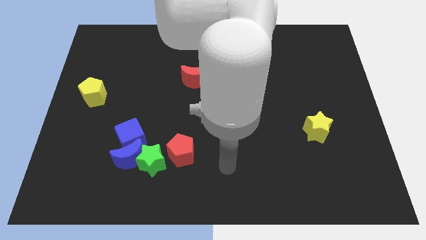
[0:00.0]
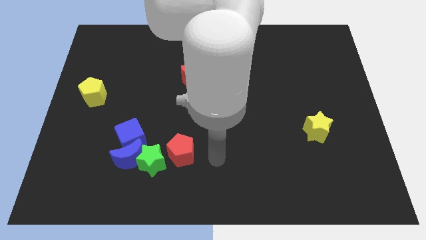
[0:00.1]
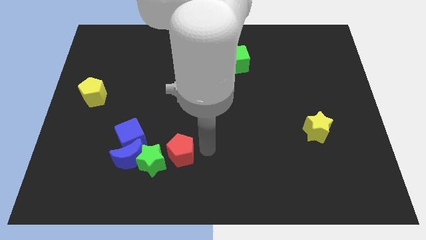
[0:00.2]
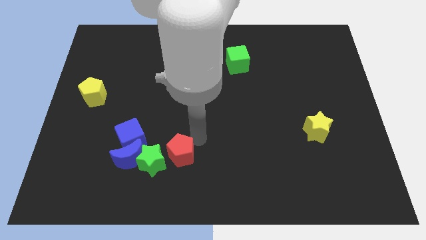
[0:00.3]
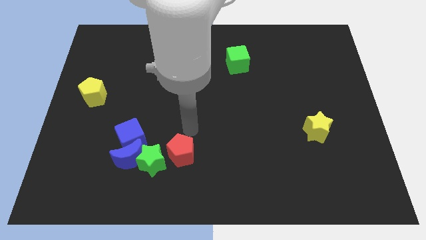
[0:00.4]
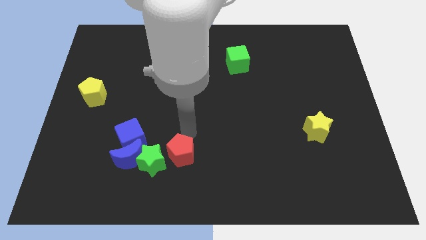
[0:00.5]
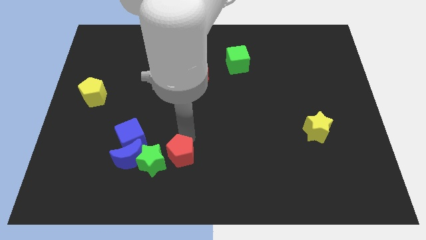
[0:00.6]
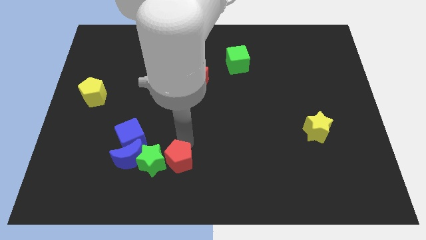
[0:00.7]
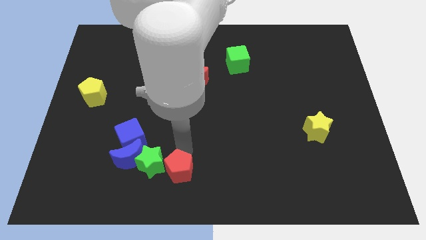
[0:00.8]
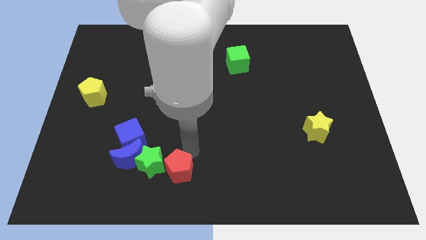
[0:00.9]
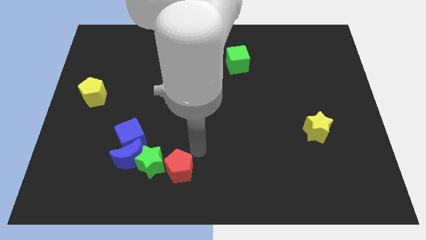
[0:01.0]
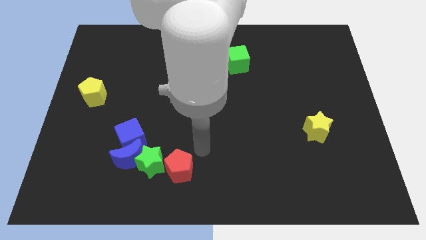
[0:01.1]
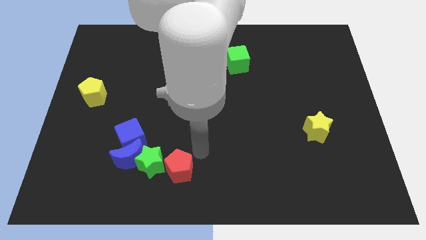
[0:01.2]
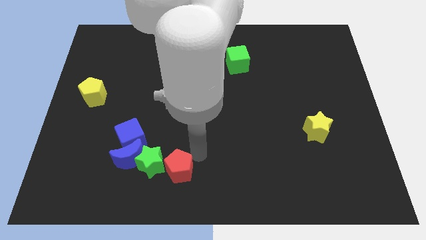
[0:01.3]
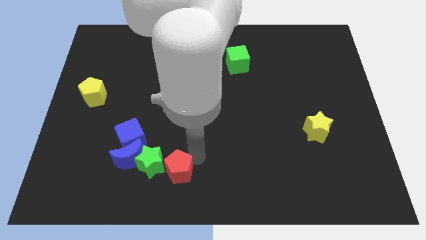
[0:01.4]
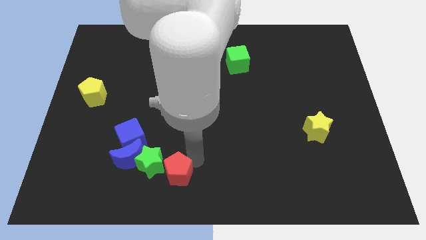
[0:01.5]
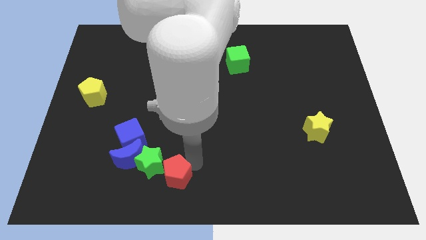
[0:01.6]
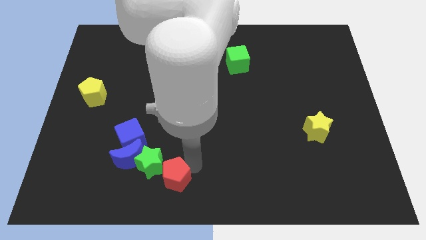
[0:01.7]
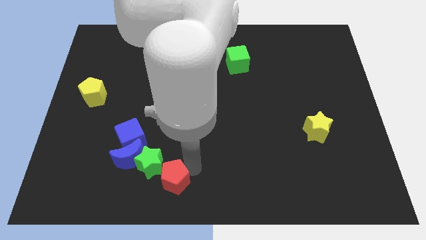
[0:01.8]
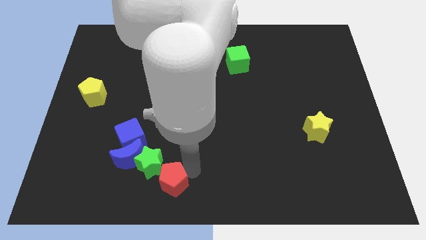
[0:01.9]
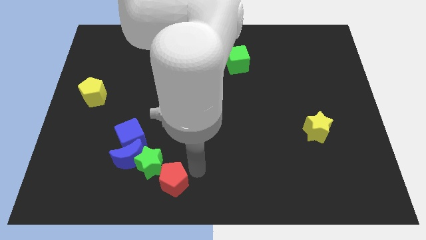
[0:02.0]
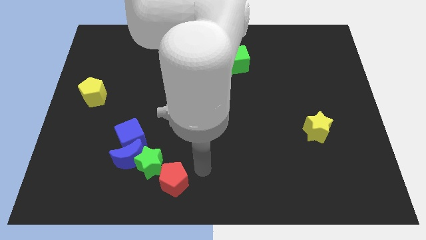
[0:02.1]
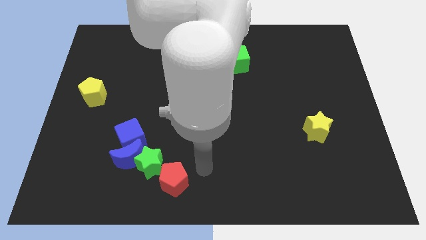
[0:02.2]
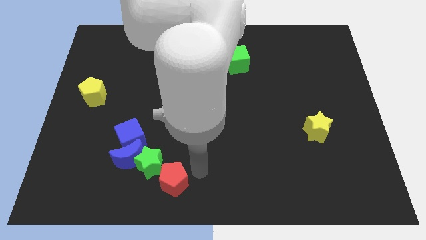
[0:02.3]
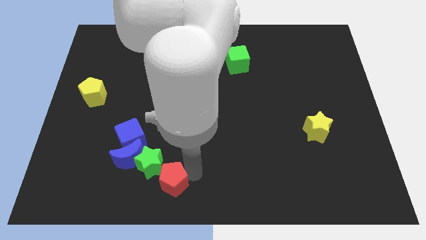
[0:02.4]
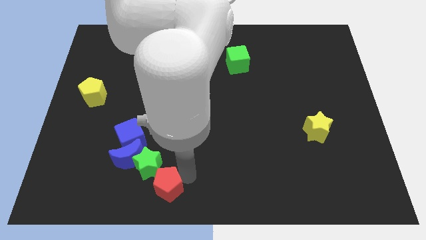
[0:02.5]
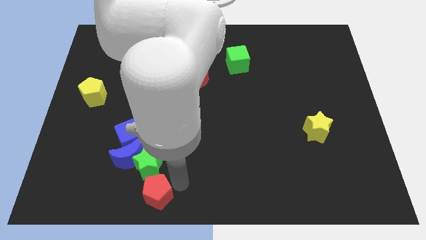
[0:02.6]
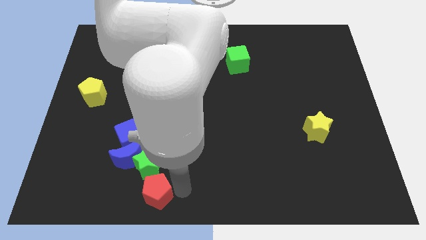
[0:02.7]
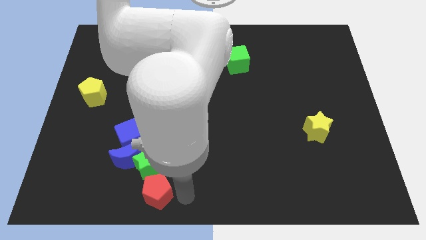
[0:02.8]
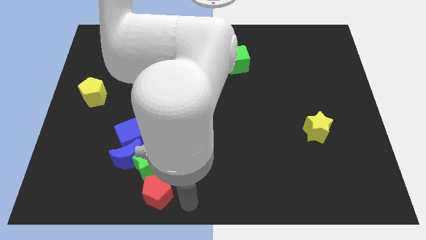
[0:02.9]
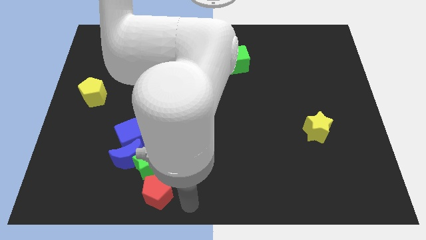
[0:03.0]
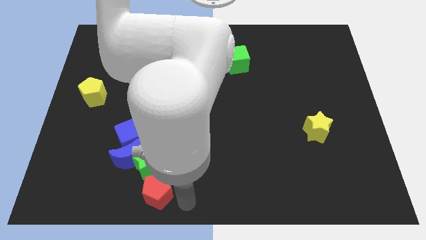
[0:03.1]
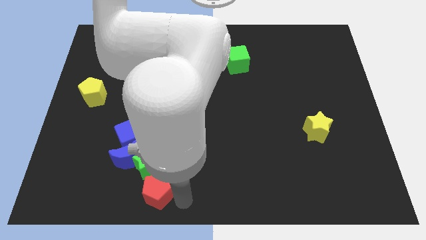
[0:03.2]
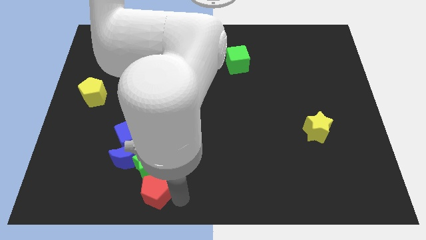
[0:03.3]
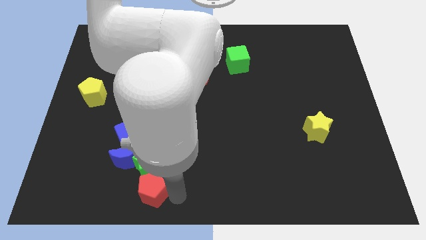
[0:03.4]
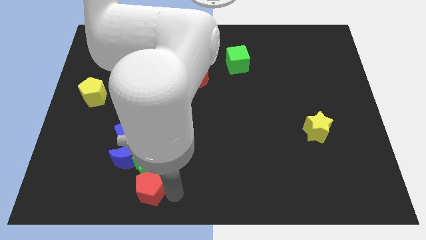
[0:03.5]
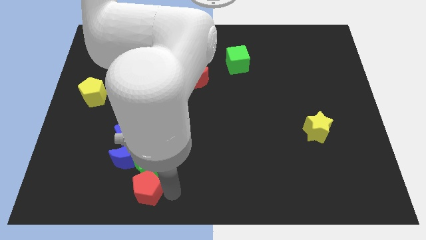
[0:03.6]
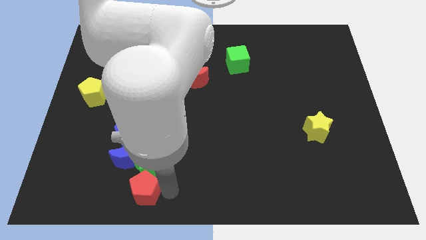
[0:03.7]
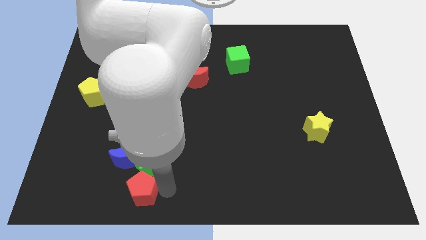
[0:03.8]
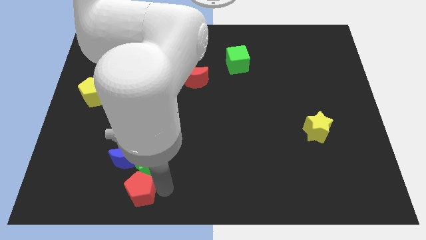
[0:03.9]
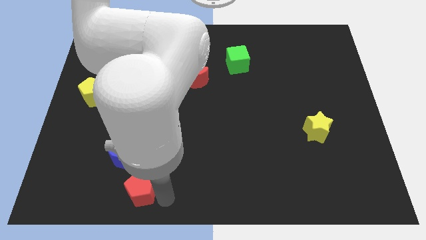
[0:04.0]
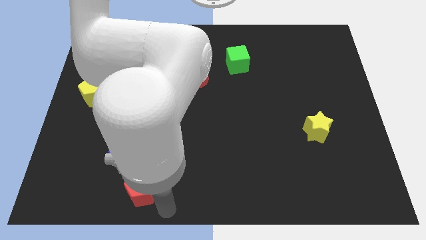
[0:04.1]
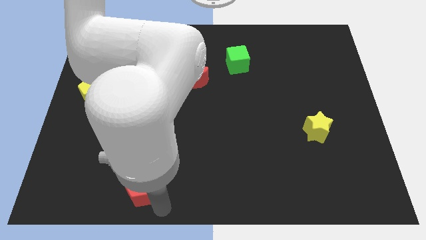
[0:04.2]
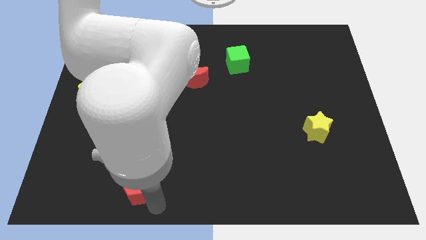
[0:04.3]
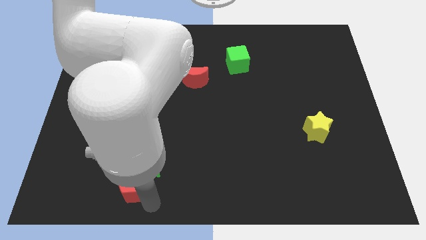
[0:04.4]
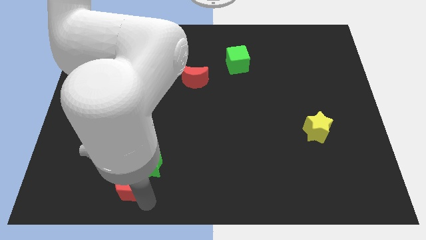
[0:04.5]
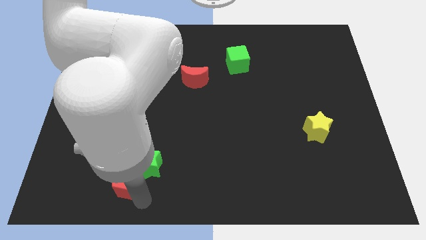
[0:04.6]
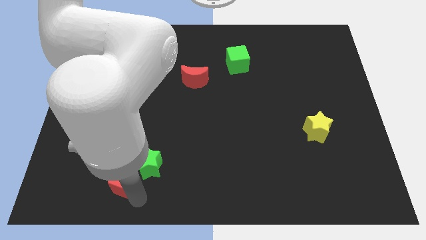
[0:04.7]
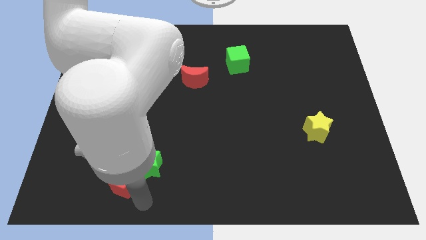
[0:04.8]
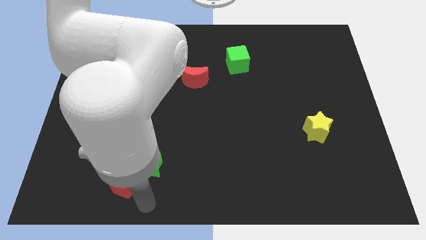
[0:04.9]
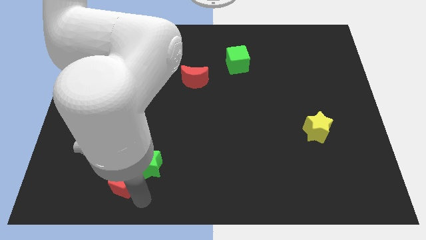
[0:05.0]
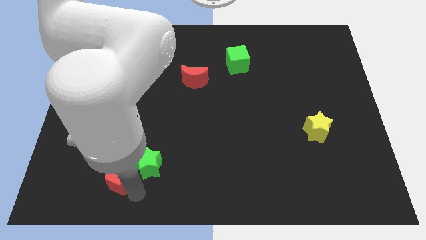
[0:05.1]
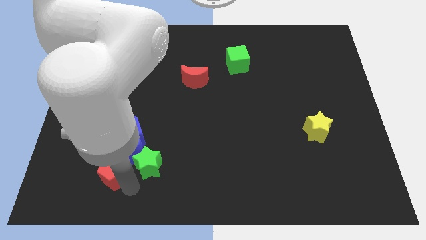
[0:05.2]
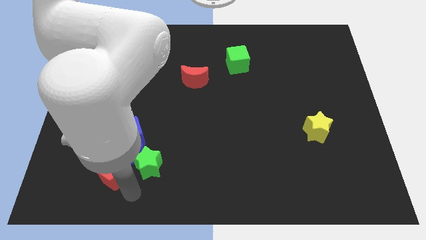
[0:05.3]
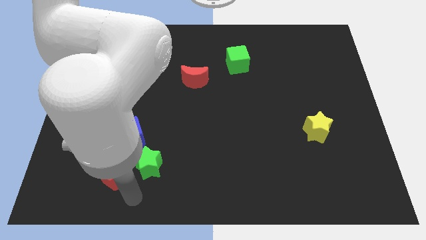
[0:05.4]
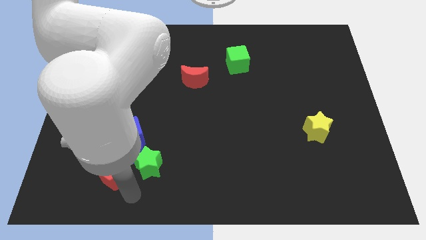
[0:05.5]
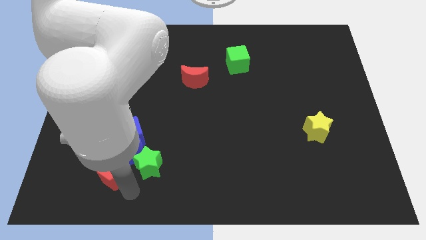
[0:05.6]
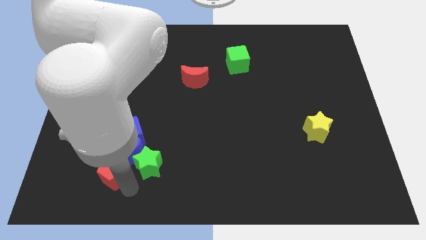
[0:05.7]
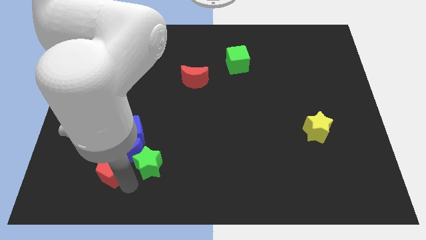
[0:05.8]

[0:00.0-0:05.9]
slide the red pentagon to the bottom left side of the blue cube

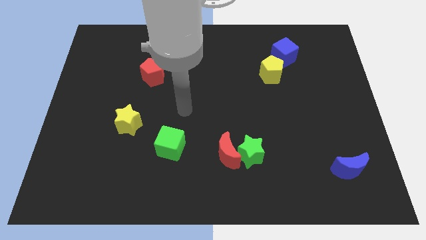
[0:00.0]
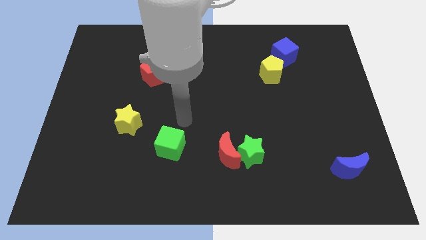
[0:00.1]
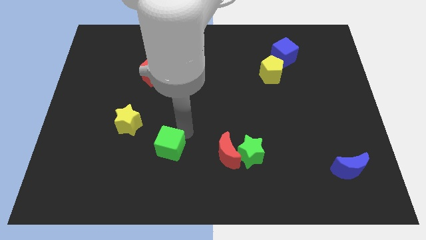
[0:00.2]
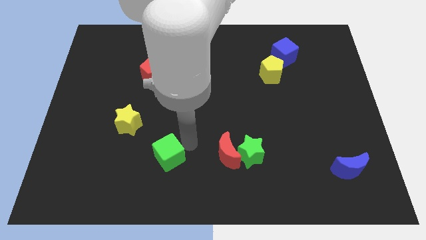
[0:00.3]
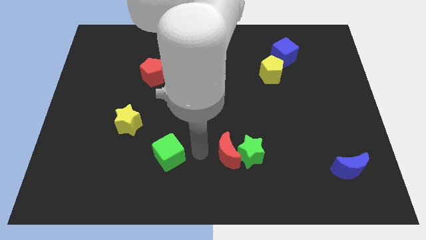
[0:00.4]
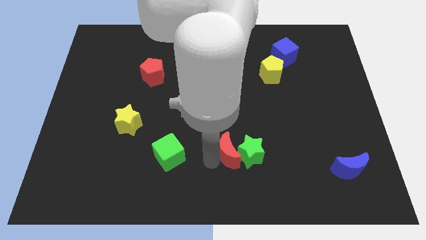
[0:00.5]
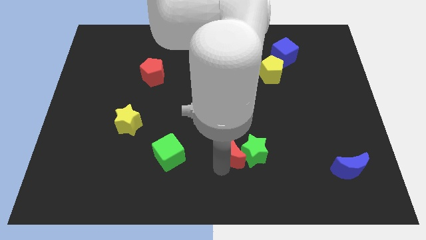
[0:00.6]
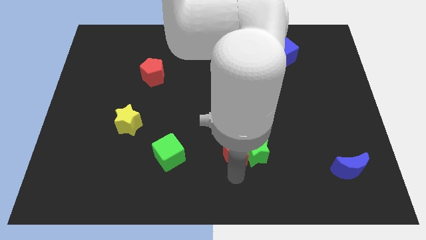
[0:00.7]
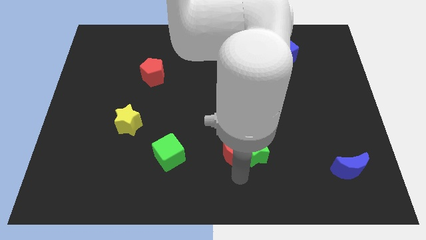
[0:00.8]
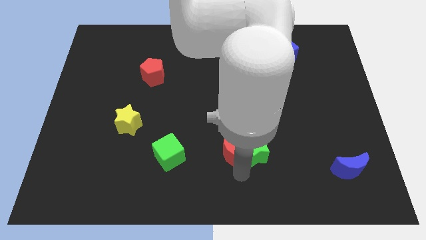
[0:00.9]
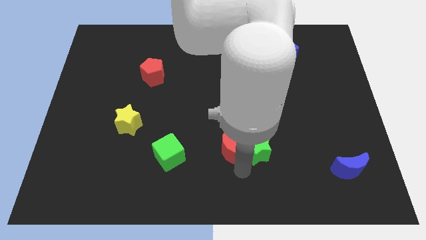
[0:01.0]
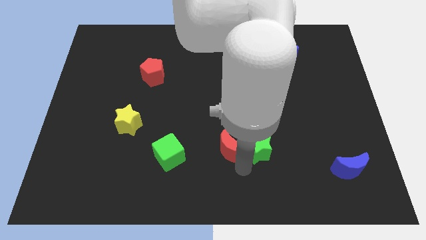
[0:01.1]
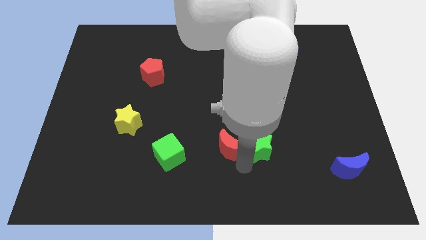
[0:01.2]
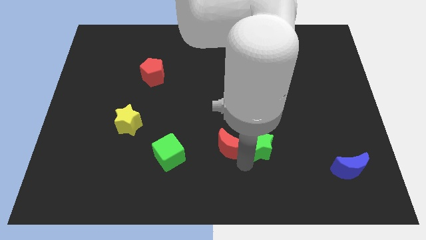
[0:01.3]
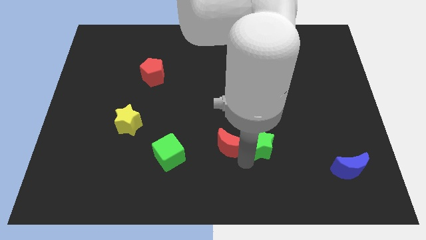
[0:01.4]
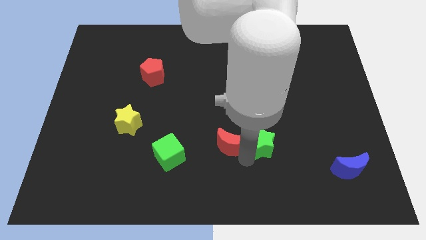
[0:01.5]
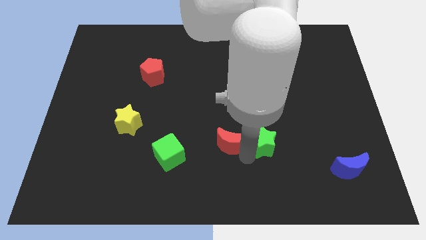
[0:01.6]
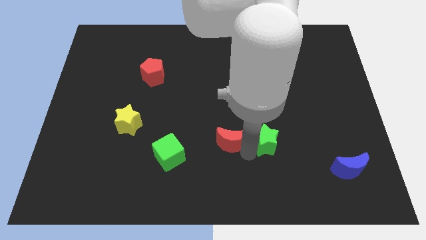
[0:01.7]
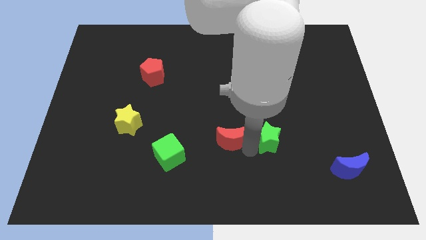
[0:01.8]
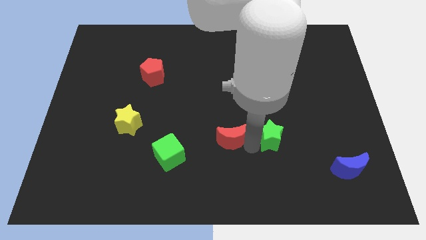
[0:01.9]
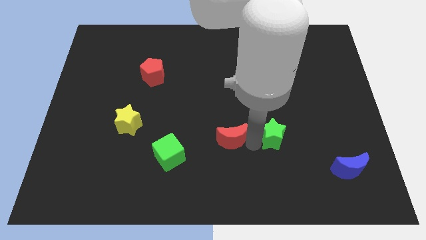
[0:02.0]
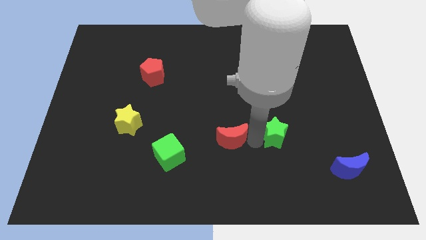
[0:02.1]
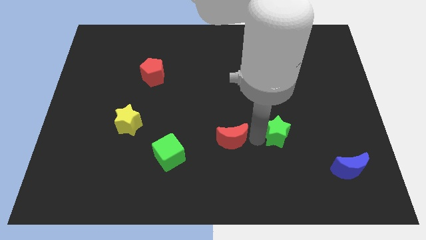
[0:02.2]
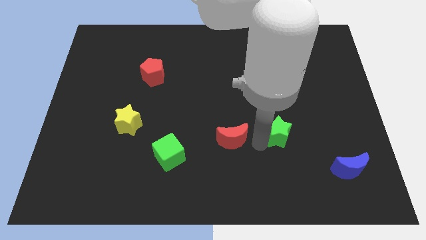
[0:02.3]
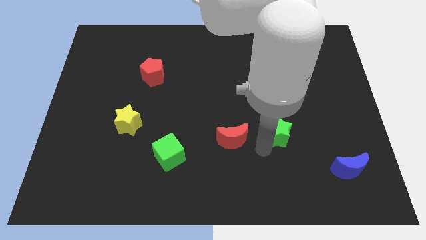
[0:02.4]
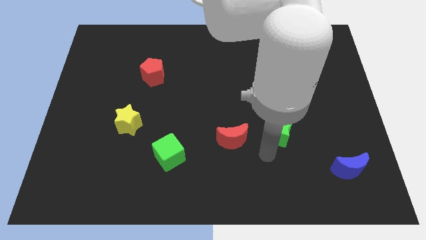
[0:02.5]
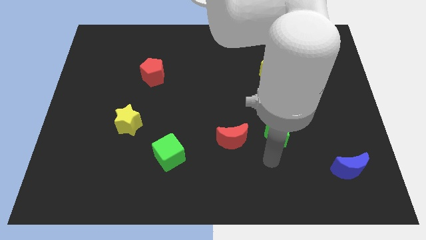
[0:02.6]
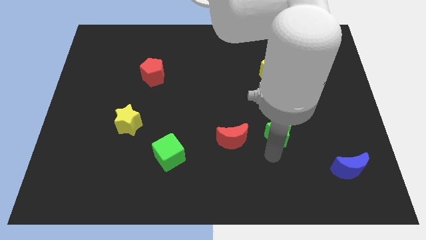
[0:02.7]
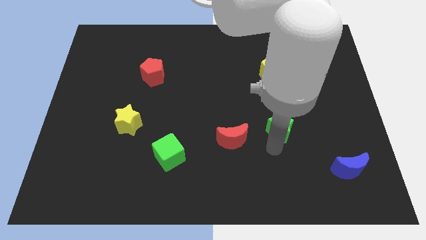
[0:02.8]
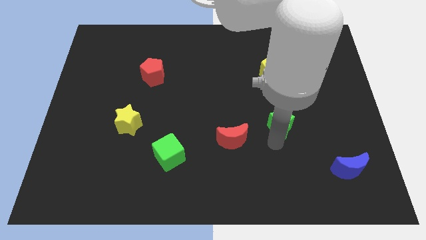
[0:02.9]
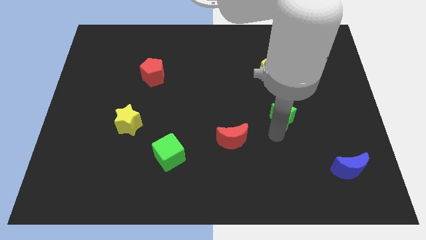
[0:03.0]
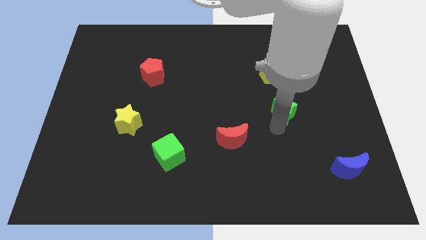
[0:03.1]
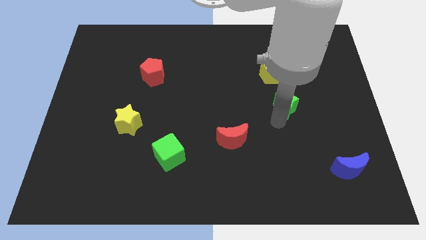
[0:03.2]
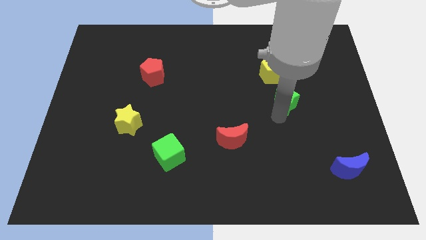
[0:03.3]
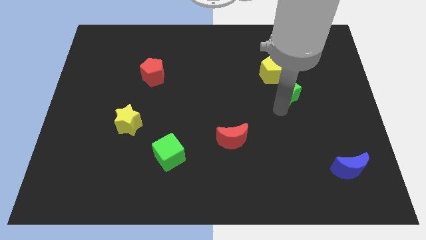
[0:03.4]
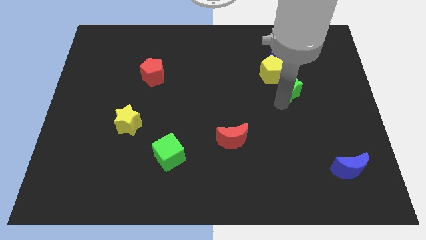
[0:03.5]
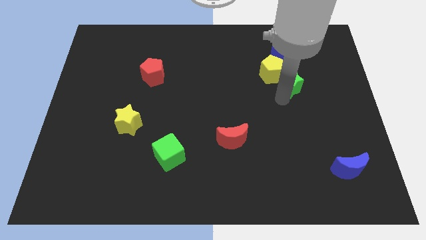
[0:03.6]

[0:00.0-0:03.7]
slide the green star right of the yellow pentagon
